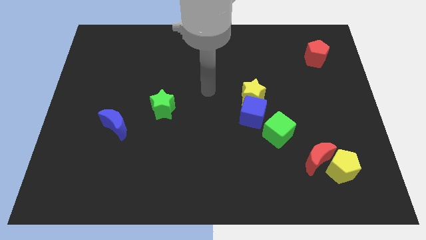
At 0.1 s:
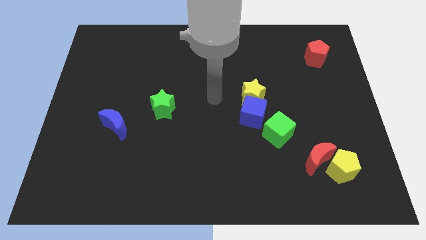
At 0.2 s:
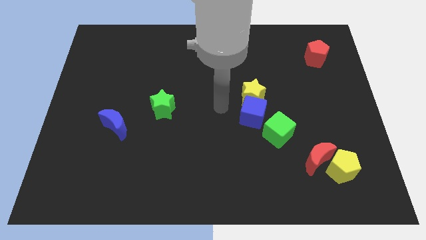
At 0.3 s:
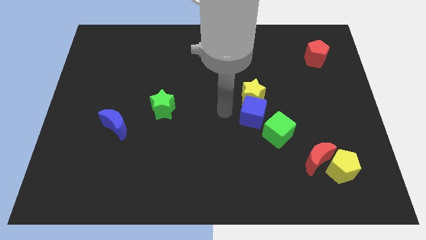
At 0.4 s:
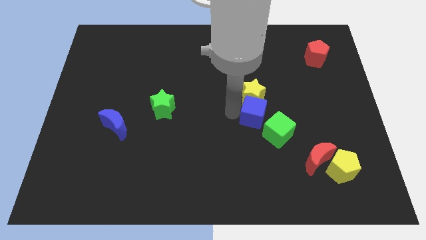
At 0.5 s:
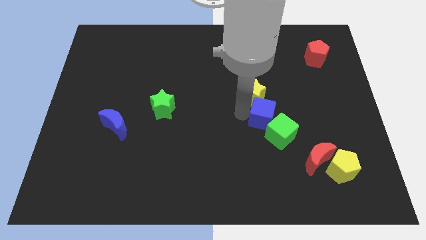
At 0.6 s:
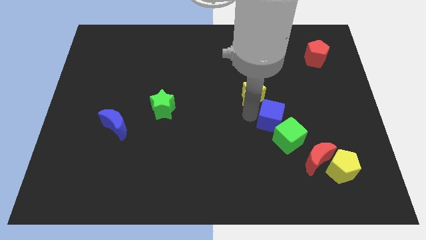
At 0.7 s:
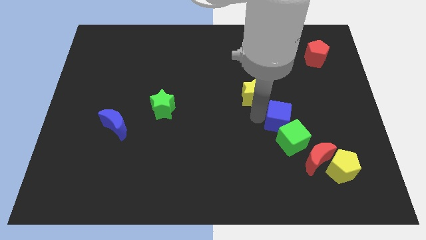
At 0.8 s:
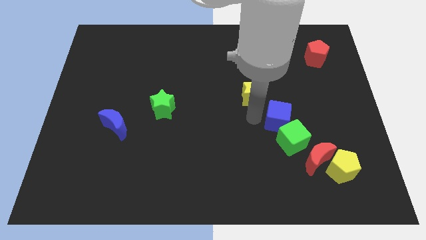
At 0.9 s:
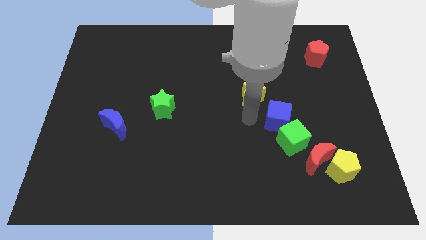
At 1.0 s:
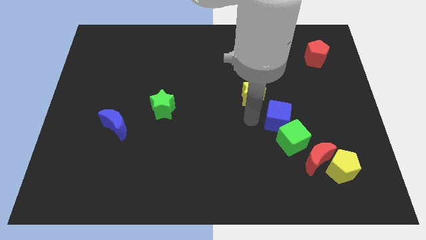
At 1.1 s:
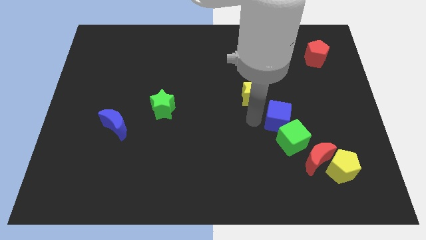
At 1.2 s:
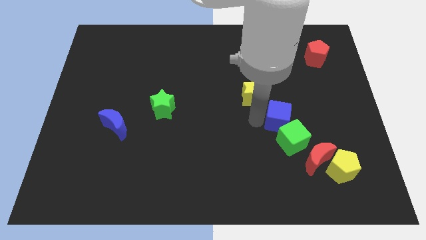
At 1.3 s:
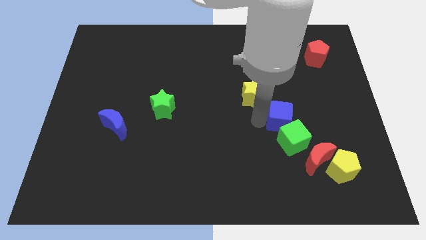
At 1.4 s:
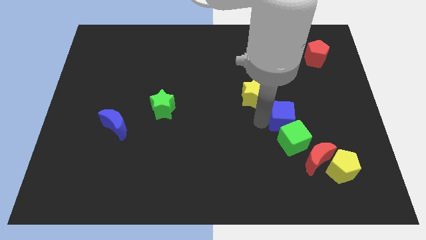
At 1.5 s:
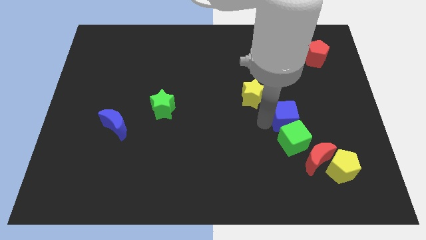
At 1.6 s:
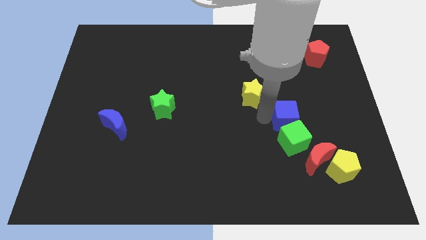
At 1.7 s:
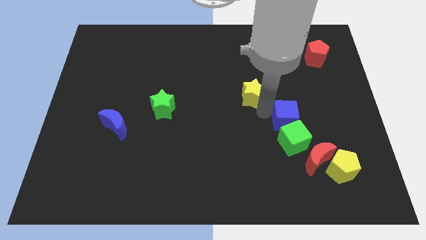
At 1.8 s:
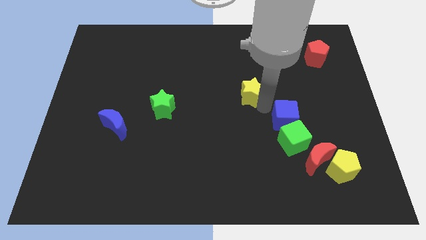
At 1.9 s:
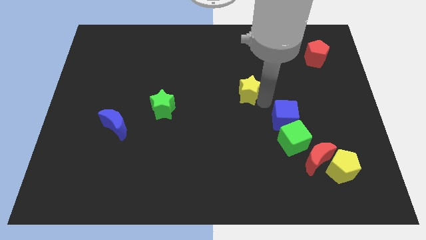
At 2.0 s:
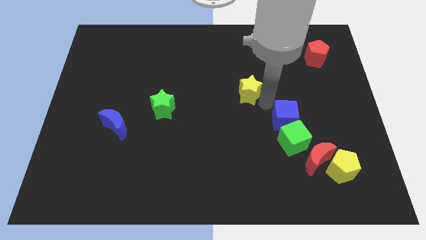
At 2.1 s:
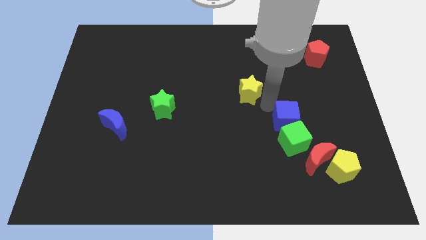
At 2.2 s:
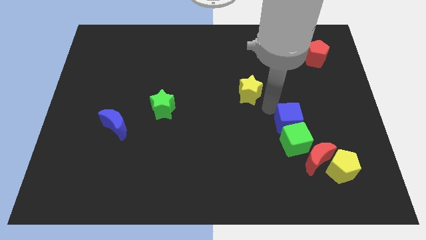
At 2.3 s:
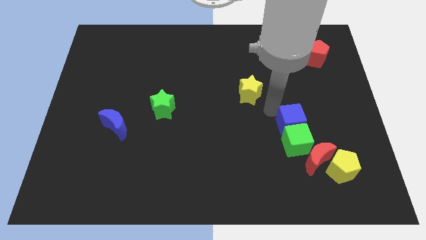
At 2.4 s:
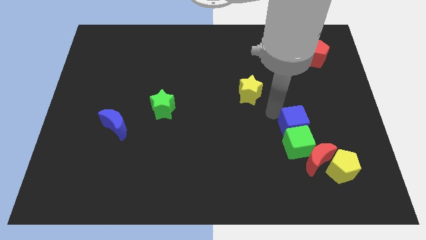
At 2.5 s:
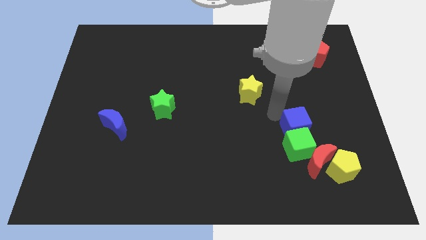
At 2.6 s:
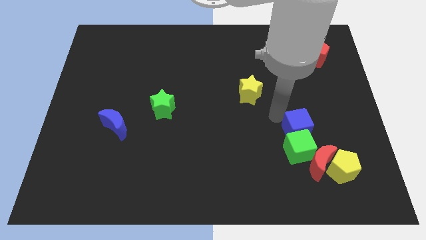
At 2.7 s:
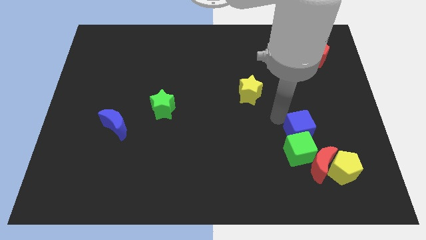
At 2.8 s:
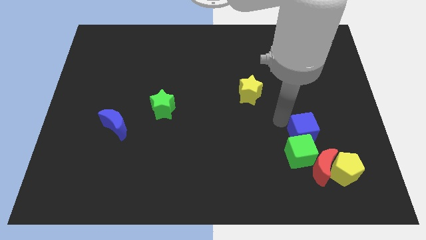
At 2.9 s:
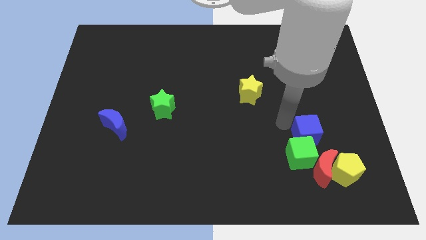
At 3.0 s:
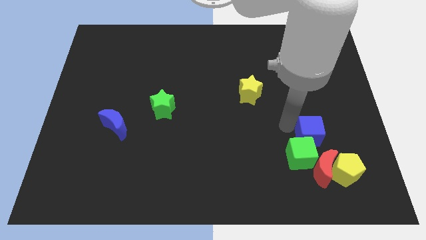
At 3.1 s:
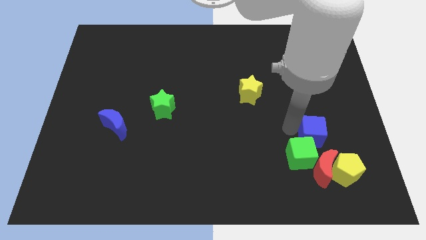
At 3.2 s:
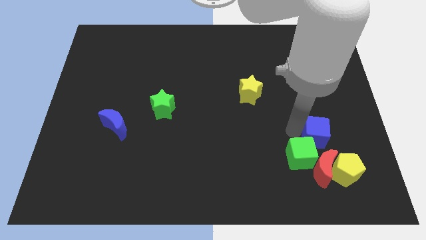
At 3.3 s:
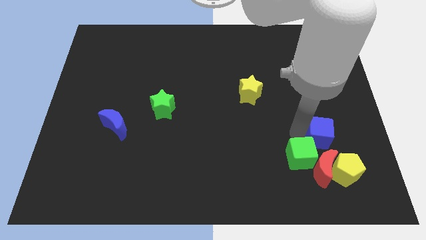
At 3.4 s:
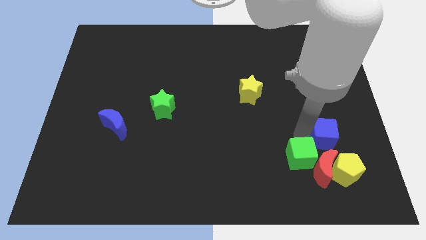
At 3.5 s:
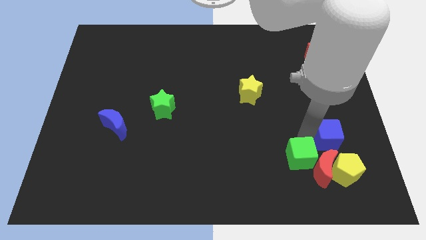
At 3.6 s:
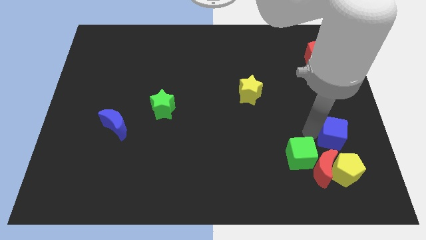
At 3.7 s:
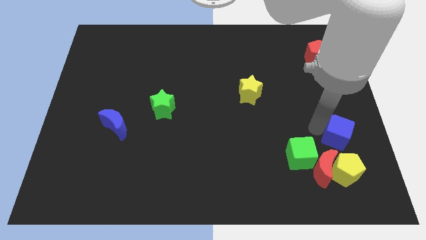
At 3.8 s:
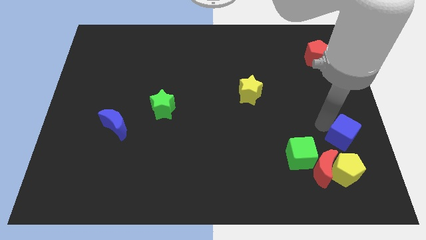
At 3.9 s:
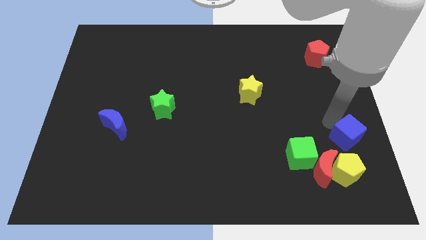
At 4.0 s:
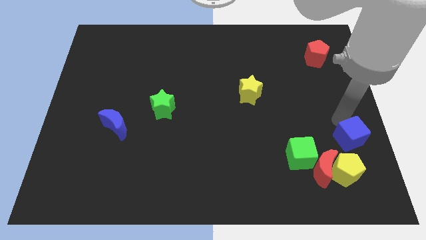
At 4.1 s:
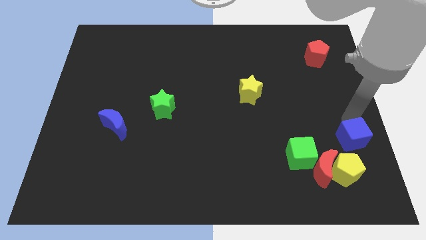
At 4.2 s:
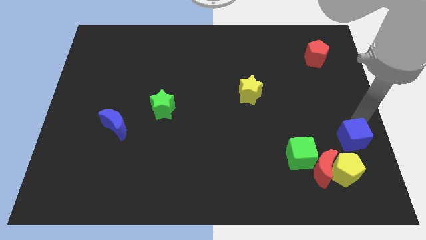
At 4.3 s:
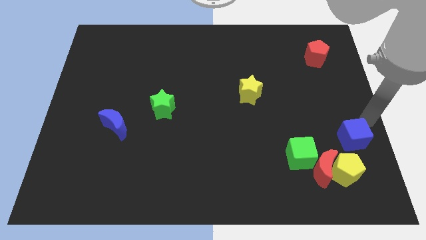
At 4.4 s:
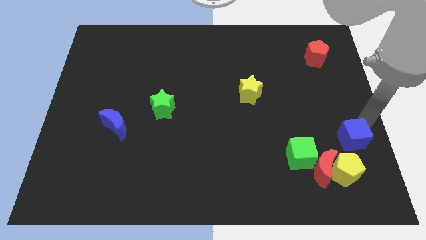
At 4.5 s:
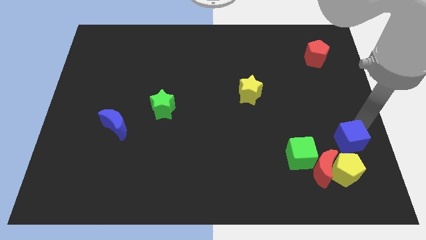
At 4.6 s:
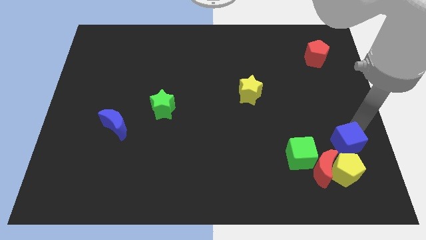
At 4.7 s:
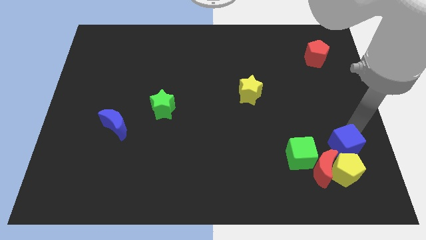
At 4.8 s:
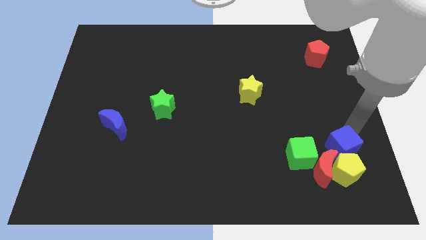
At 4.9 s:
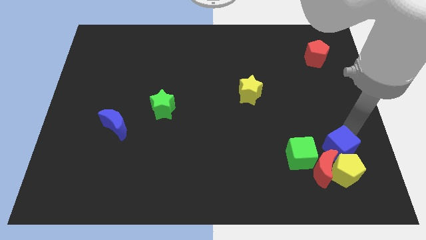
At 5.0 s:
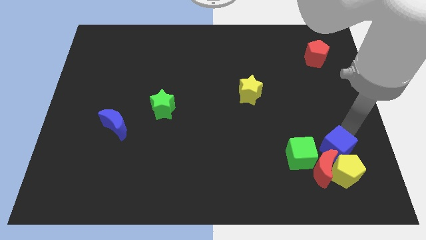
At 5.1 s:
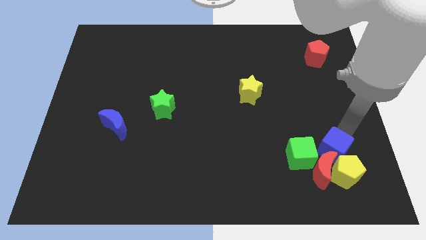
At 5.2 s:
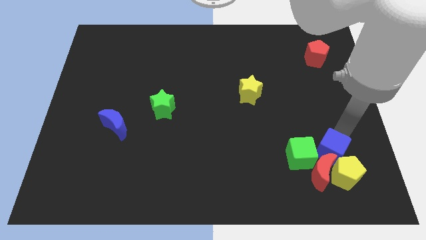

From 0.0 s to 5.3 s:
put the blue cube towards the red moon

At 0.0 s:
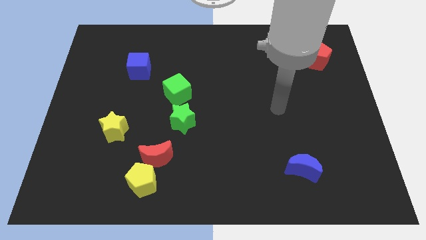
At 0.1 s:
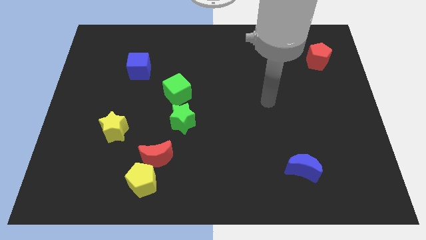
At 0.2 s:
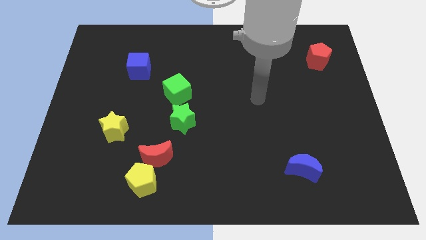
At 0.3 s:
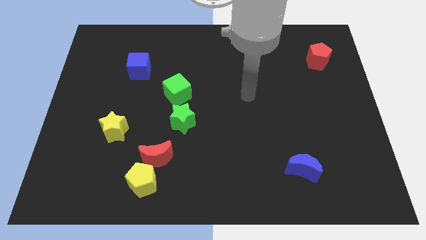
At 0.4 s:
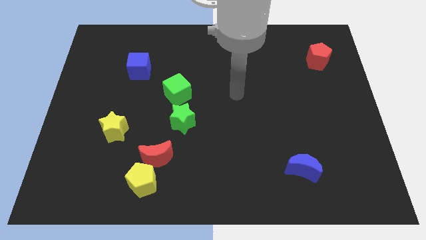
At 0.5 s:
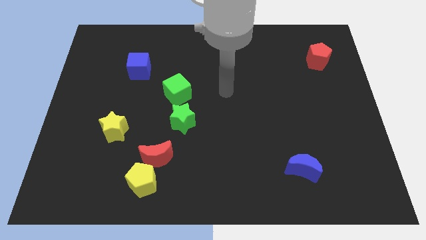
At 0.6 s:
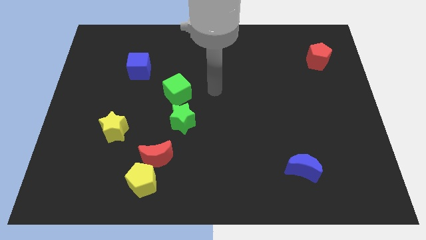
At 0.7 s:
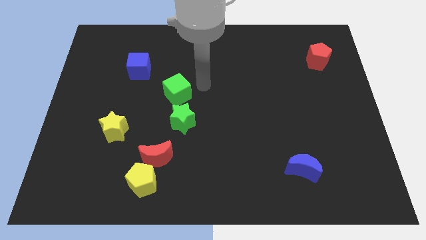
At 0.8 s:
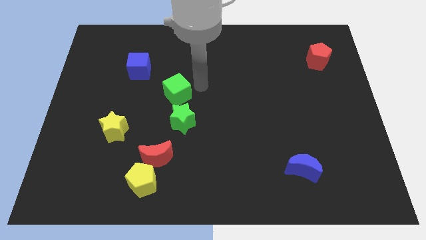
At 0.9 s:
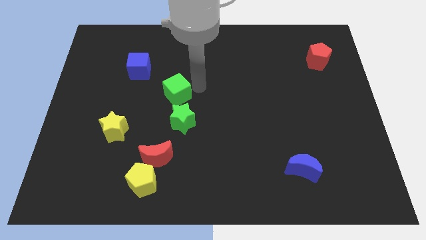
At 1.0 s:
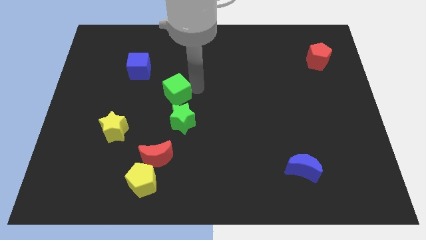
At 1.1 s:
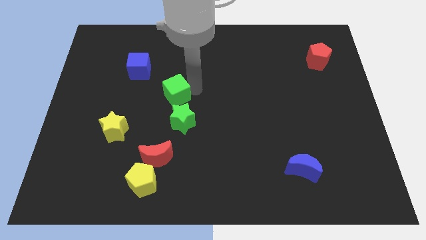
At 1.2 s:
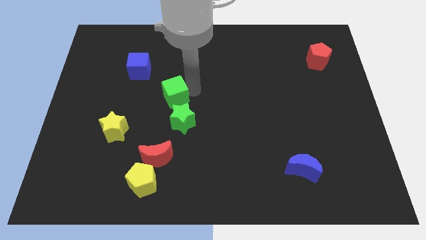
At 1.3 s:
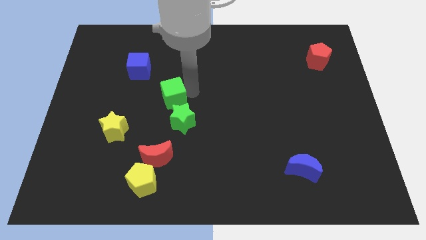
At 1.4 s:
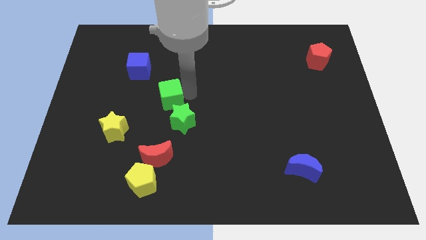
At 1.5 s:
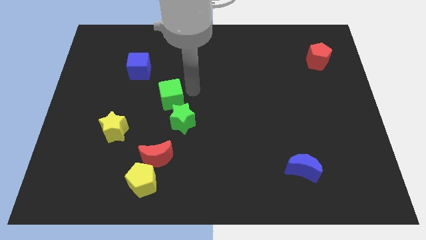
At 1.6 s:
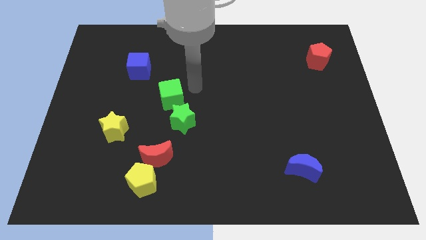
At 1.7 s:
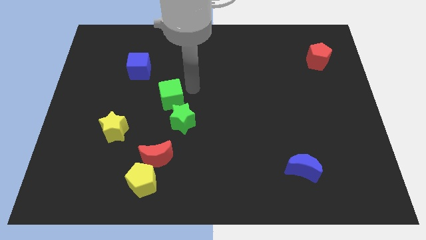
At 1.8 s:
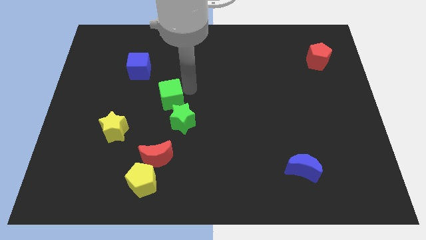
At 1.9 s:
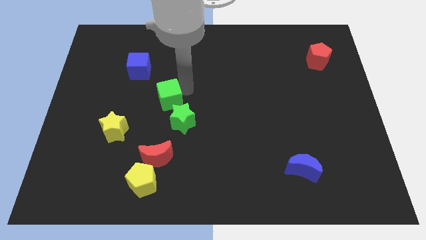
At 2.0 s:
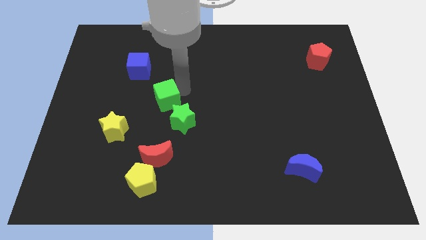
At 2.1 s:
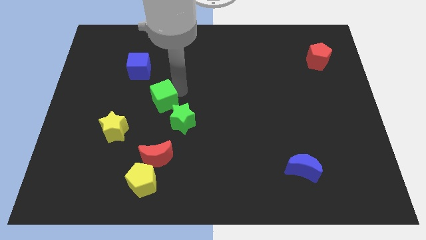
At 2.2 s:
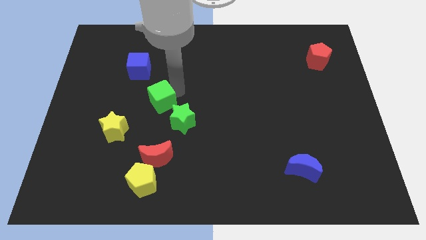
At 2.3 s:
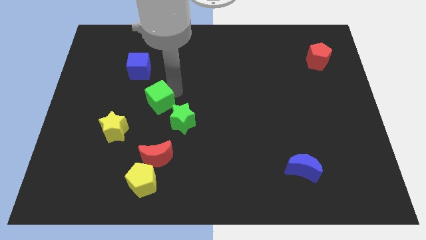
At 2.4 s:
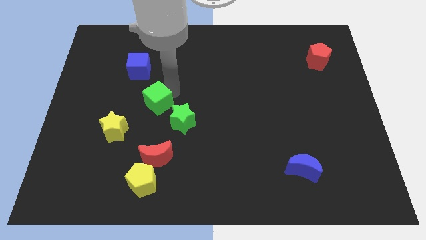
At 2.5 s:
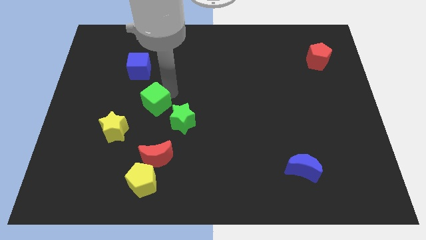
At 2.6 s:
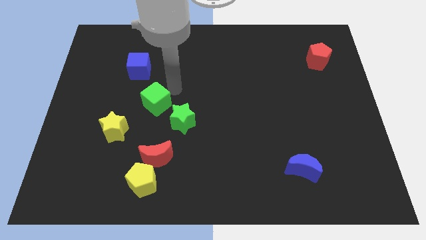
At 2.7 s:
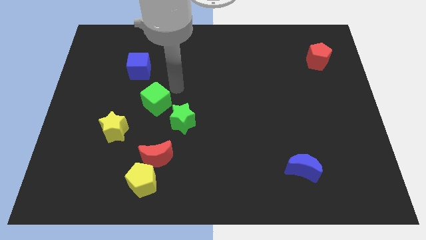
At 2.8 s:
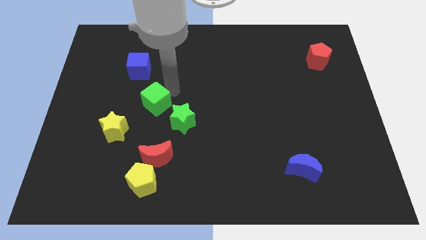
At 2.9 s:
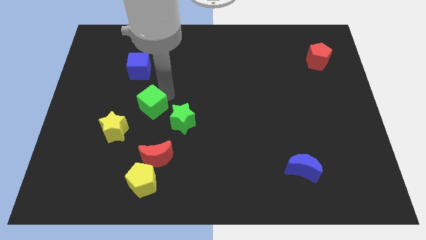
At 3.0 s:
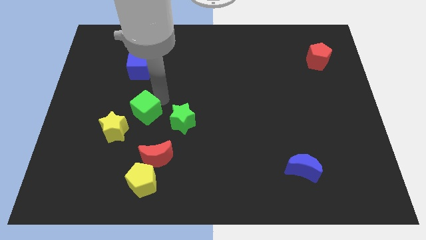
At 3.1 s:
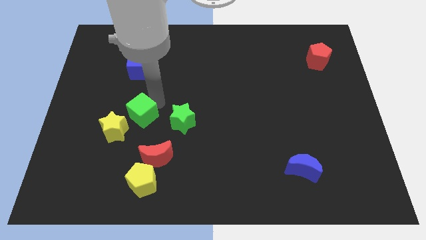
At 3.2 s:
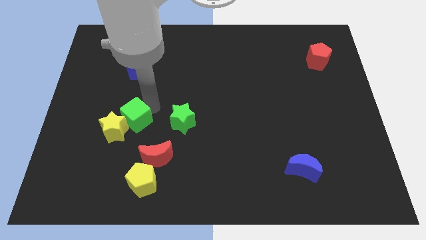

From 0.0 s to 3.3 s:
slide the green cube next to the yellow star
